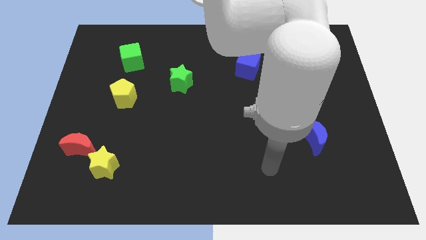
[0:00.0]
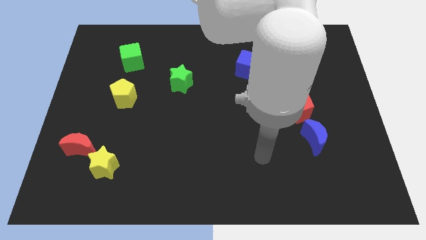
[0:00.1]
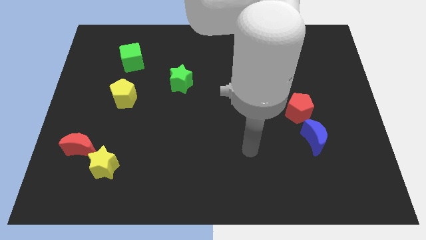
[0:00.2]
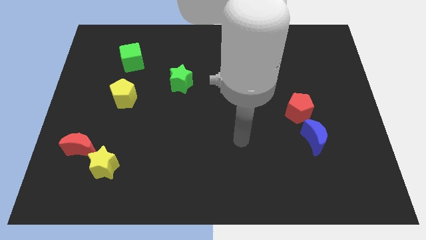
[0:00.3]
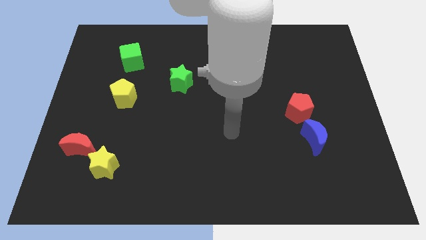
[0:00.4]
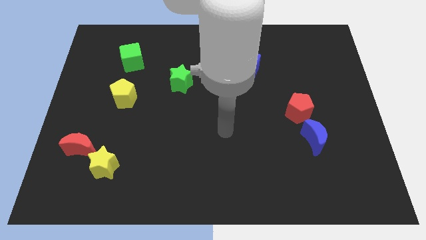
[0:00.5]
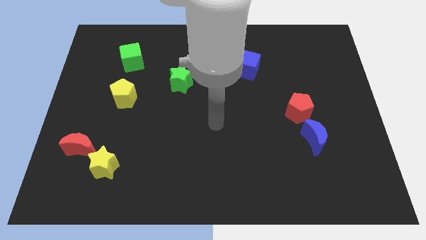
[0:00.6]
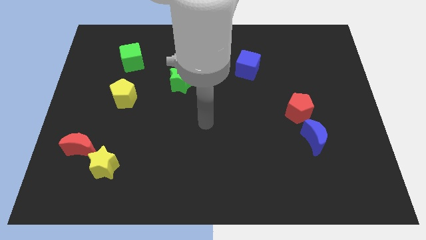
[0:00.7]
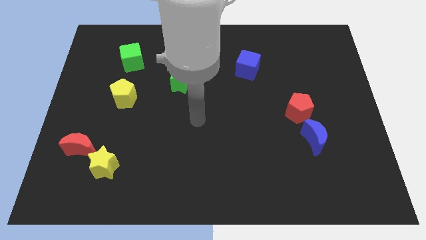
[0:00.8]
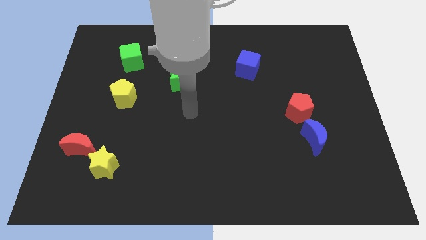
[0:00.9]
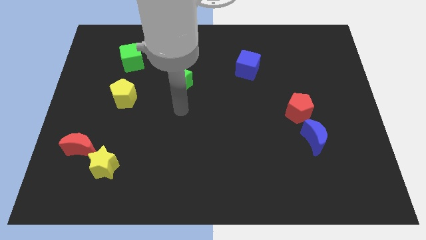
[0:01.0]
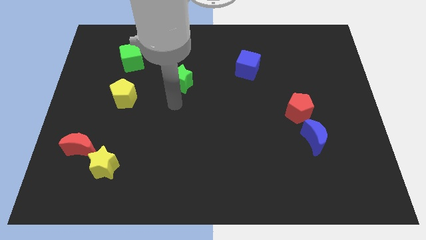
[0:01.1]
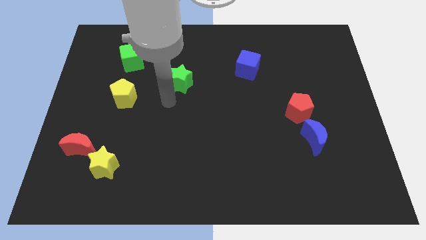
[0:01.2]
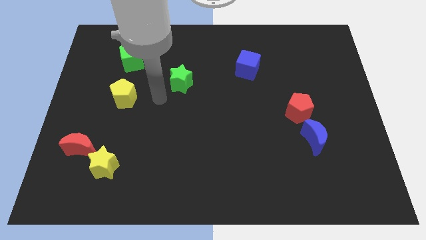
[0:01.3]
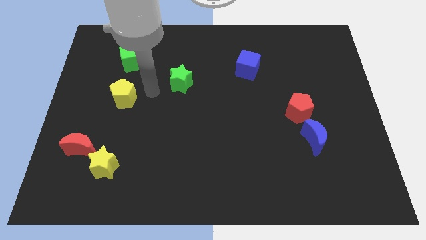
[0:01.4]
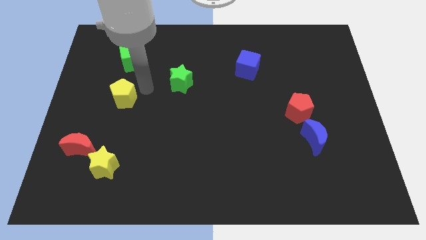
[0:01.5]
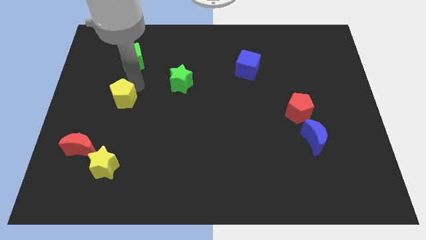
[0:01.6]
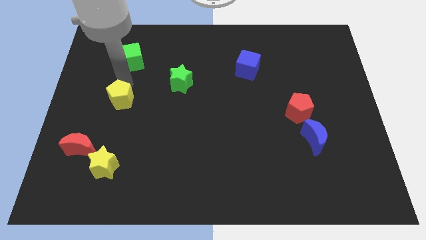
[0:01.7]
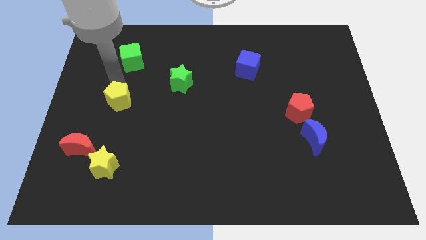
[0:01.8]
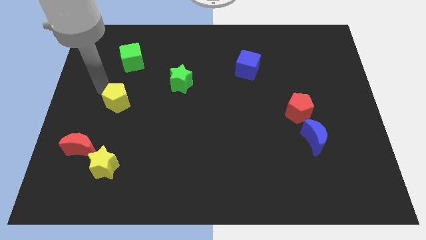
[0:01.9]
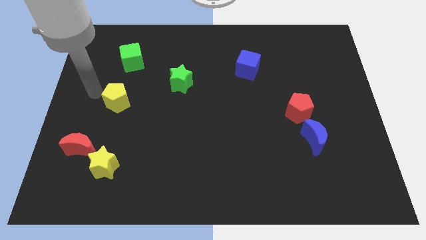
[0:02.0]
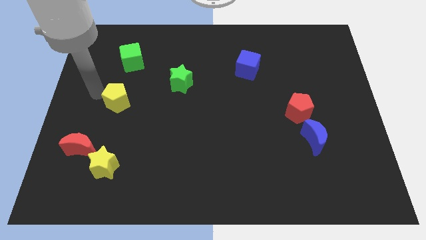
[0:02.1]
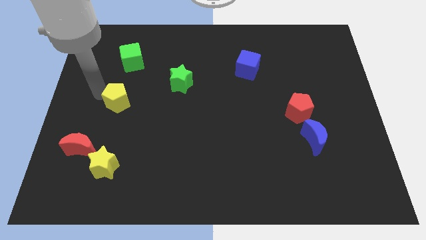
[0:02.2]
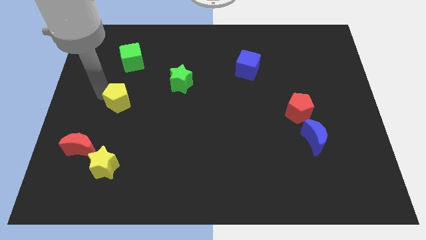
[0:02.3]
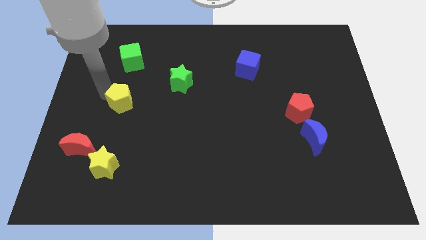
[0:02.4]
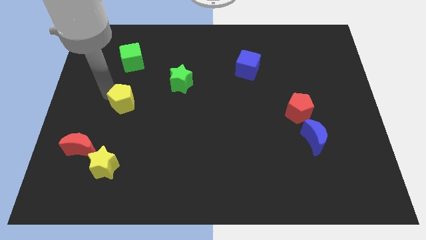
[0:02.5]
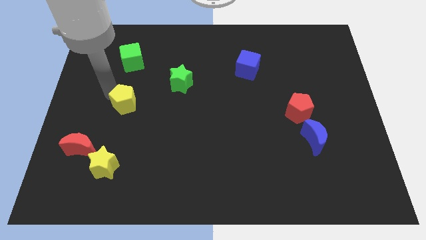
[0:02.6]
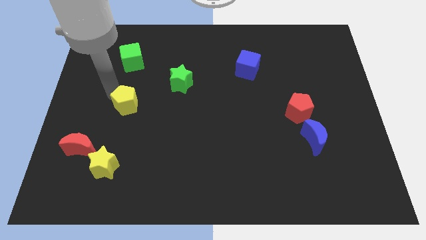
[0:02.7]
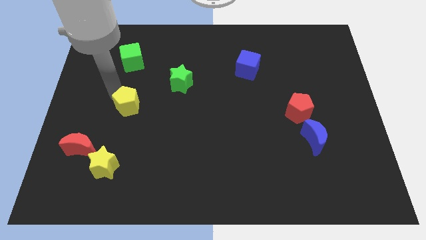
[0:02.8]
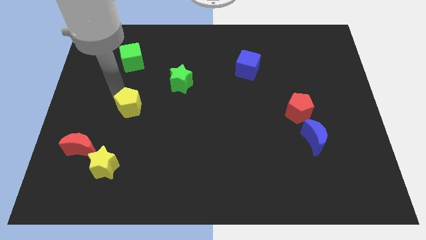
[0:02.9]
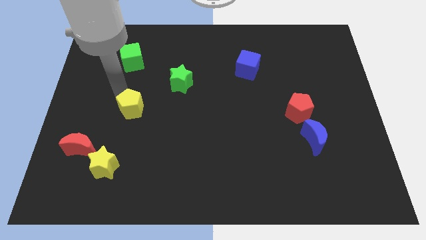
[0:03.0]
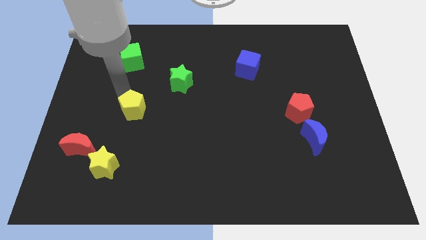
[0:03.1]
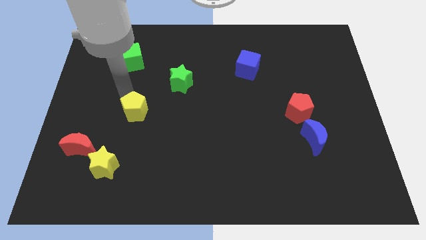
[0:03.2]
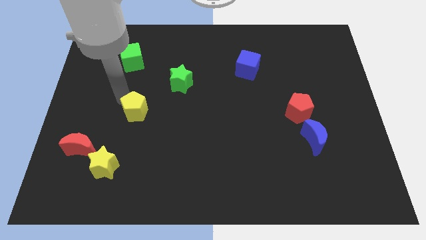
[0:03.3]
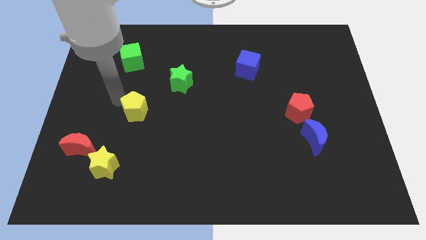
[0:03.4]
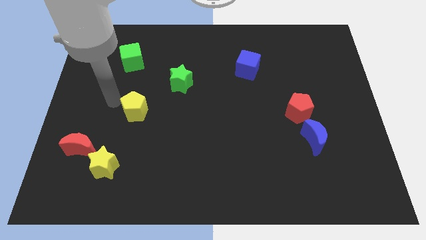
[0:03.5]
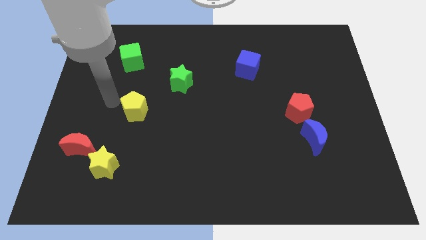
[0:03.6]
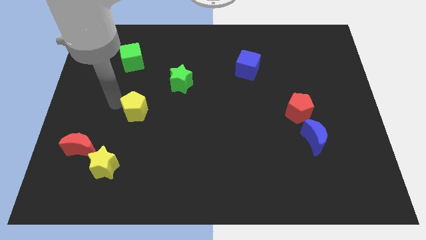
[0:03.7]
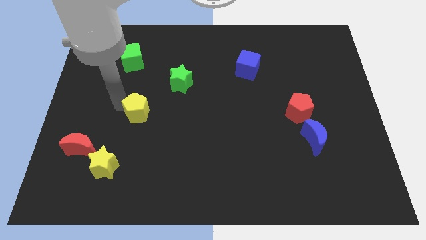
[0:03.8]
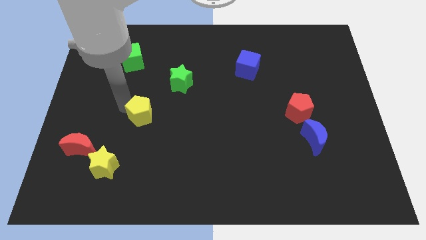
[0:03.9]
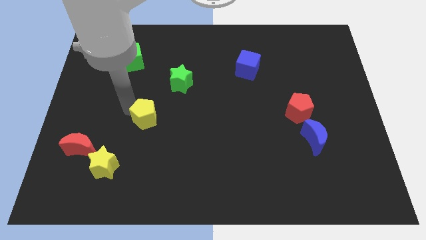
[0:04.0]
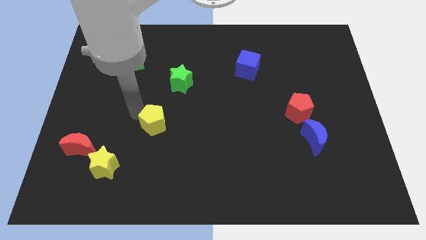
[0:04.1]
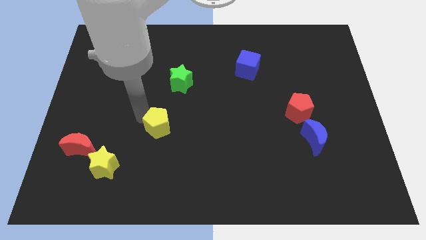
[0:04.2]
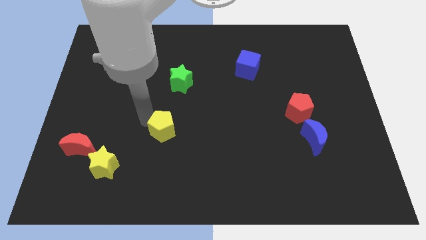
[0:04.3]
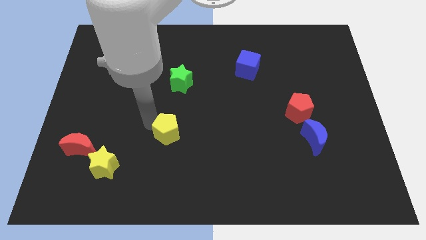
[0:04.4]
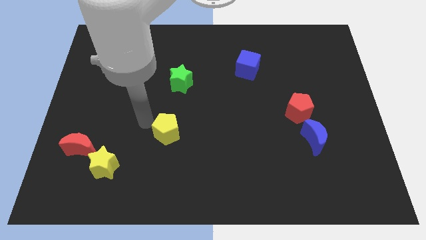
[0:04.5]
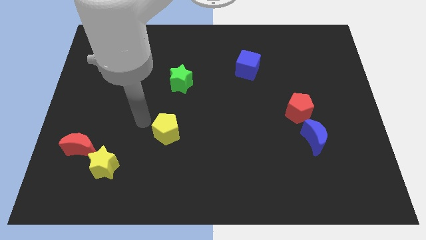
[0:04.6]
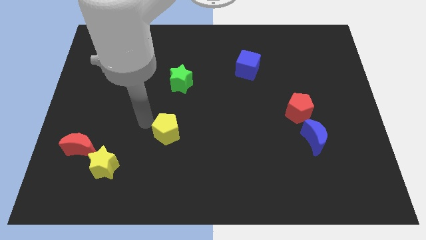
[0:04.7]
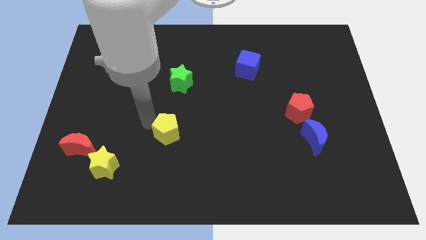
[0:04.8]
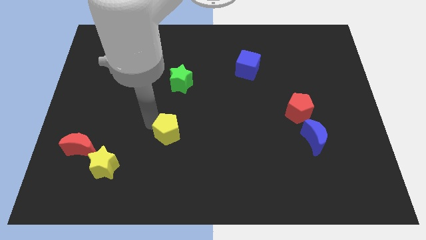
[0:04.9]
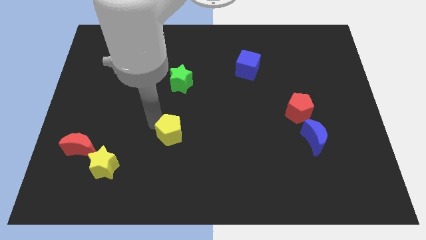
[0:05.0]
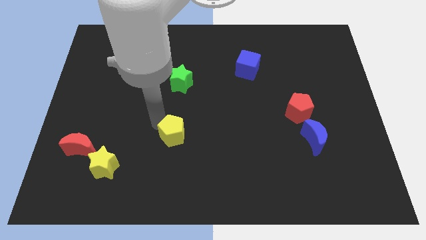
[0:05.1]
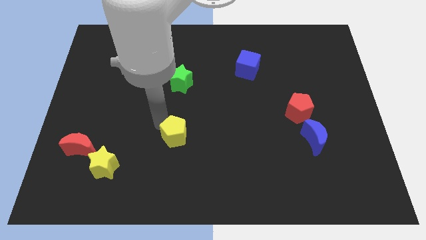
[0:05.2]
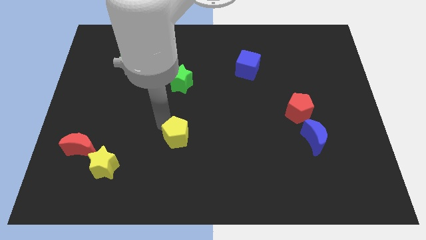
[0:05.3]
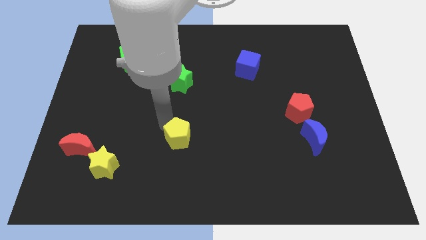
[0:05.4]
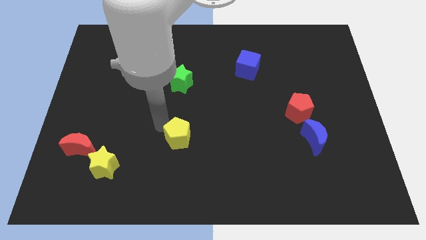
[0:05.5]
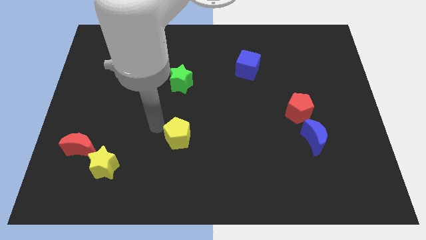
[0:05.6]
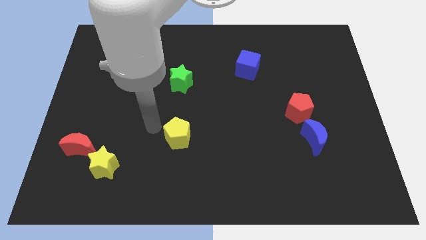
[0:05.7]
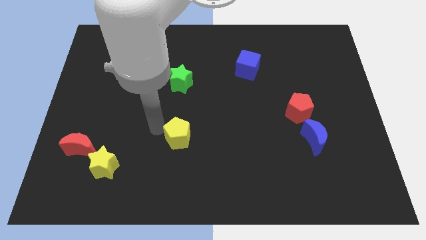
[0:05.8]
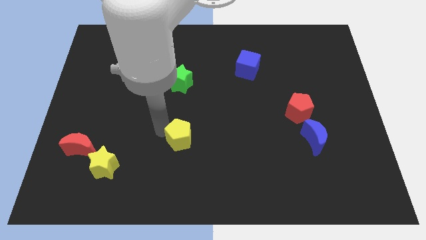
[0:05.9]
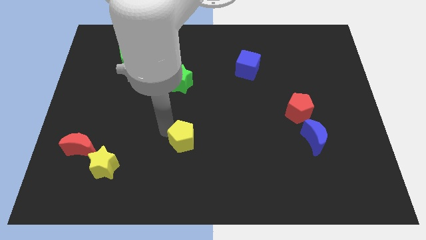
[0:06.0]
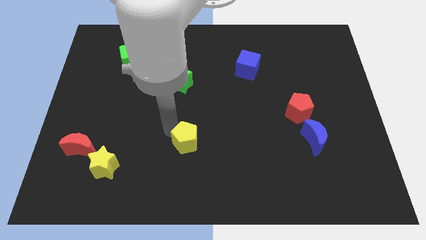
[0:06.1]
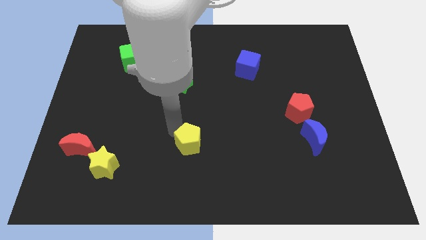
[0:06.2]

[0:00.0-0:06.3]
slide the yellow pentagon downwards and to the right

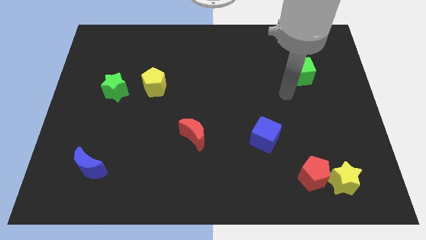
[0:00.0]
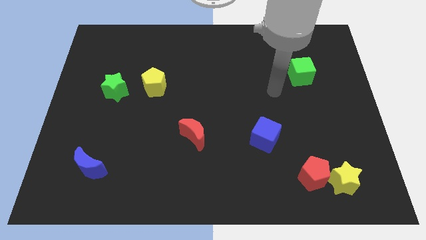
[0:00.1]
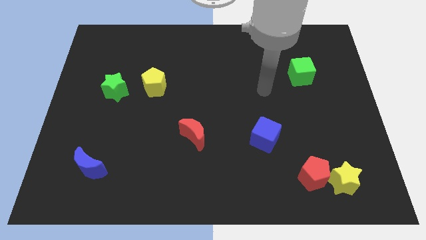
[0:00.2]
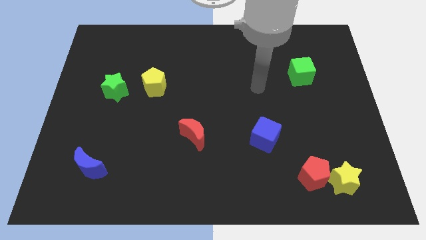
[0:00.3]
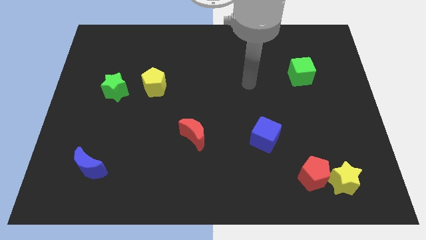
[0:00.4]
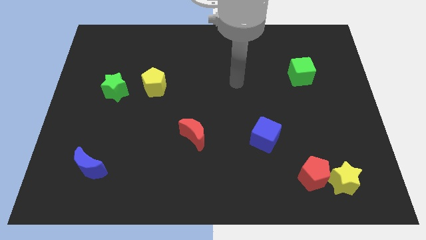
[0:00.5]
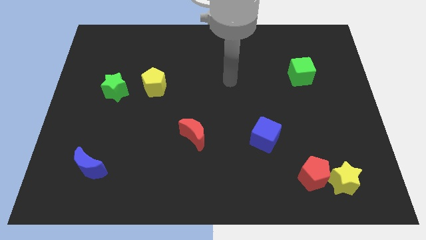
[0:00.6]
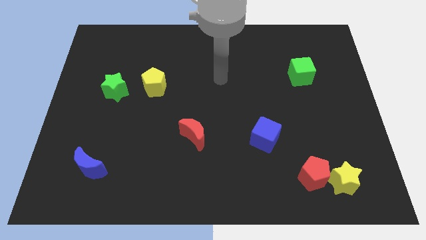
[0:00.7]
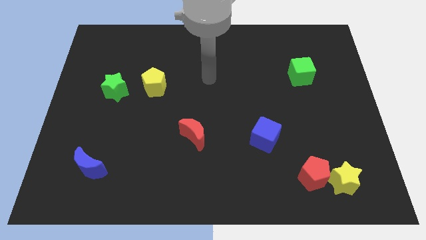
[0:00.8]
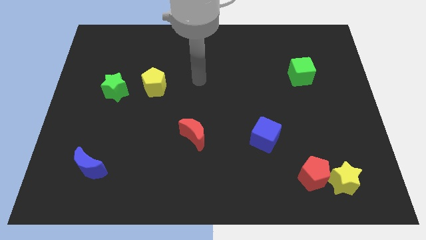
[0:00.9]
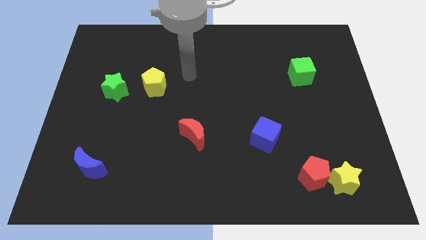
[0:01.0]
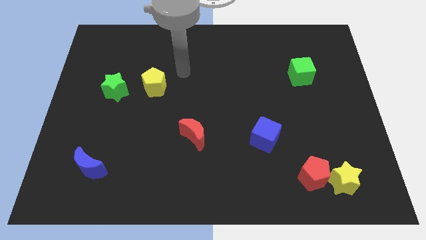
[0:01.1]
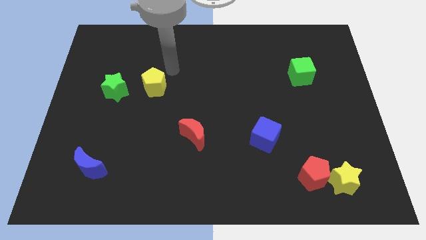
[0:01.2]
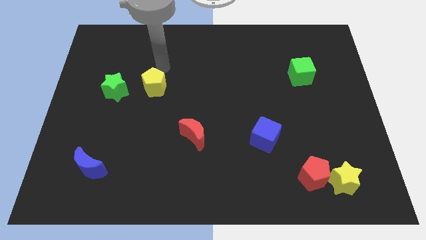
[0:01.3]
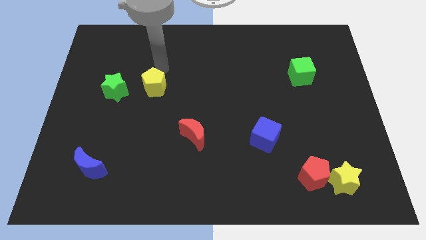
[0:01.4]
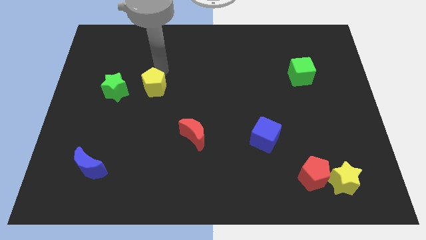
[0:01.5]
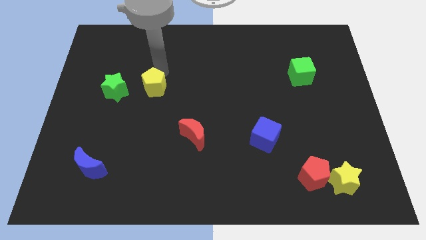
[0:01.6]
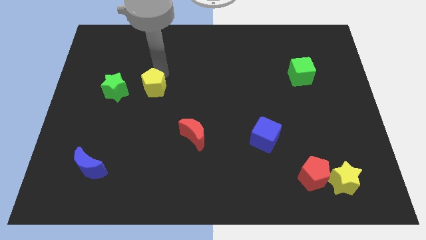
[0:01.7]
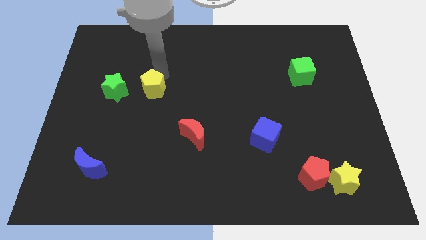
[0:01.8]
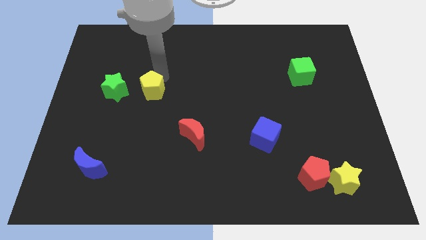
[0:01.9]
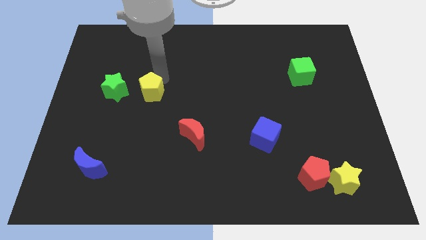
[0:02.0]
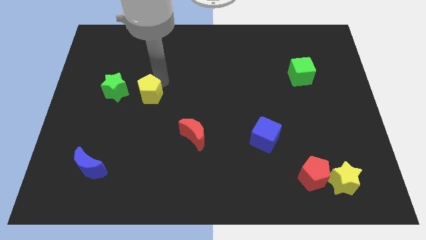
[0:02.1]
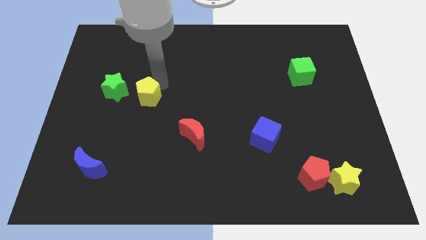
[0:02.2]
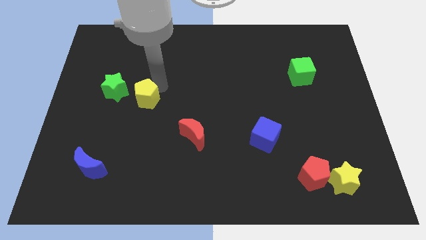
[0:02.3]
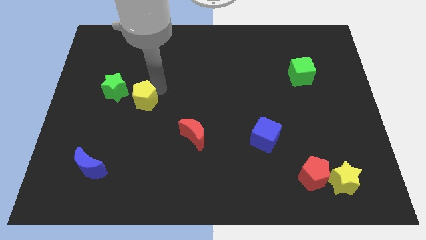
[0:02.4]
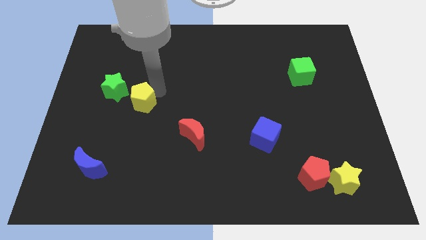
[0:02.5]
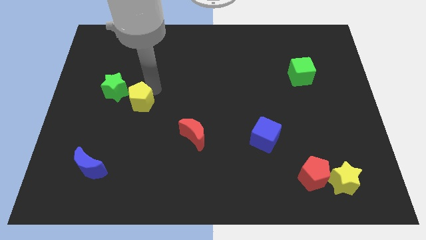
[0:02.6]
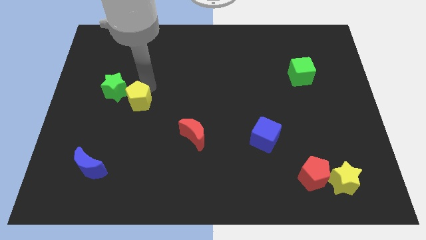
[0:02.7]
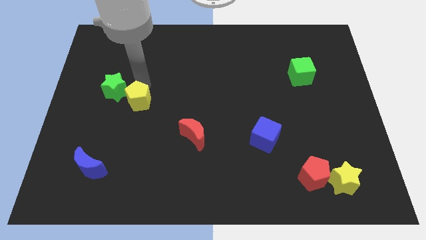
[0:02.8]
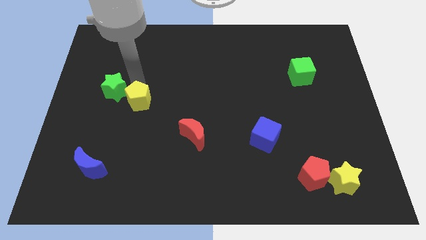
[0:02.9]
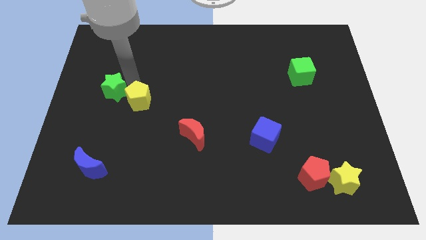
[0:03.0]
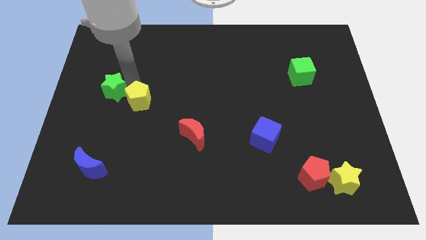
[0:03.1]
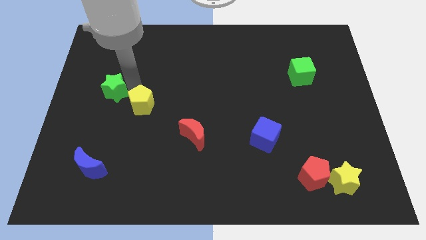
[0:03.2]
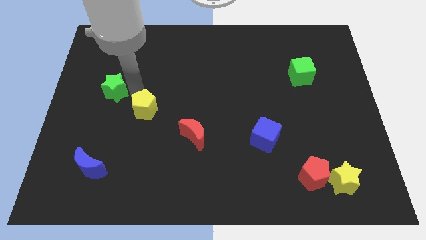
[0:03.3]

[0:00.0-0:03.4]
slightly push the yellow pentagon downwards
